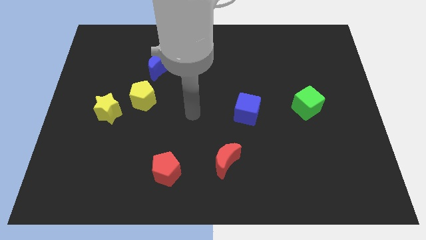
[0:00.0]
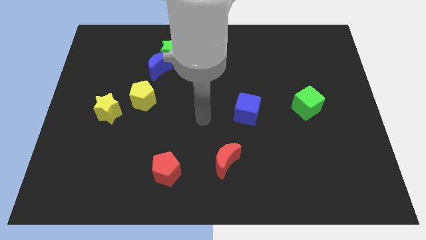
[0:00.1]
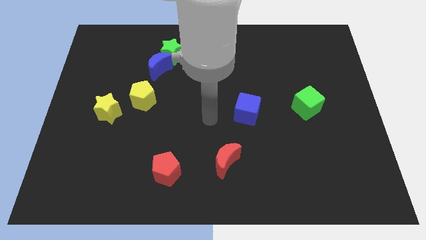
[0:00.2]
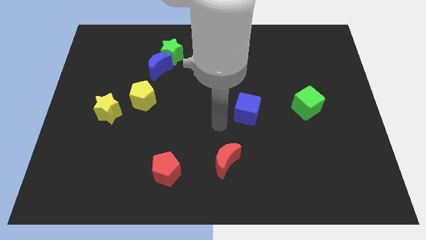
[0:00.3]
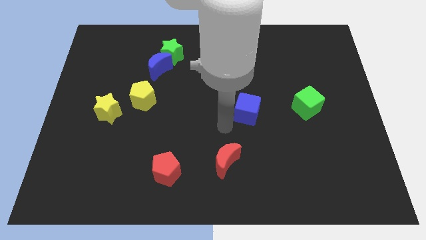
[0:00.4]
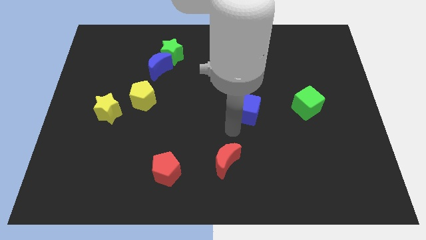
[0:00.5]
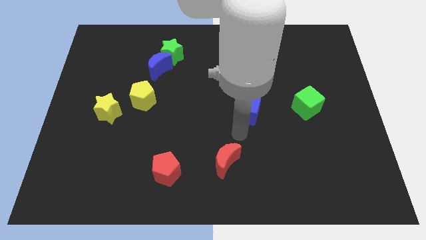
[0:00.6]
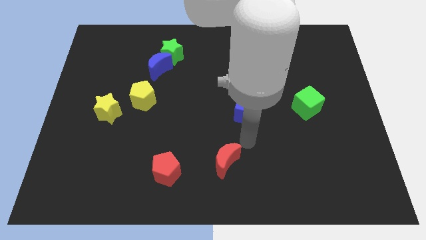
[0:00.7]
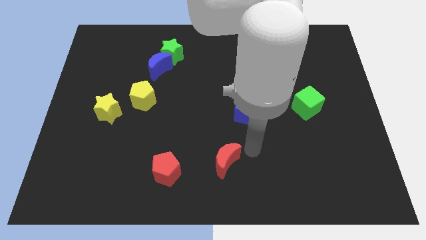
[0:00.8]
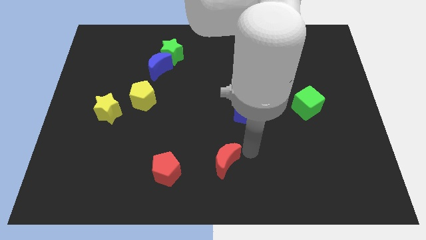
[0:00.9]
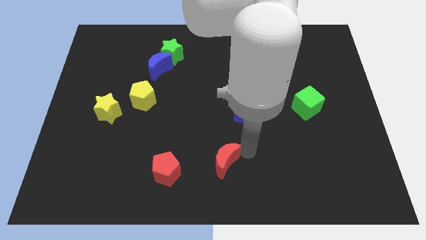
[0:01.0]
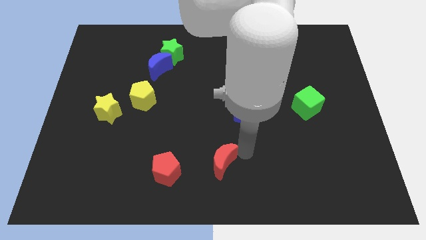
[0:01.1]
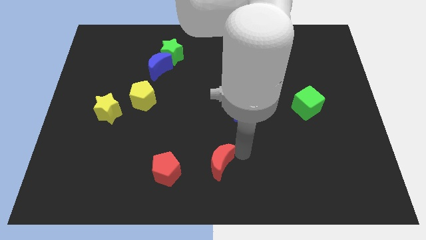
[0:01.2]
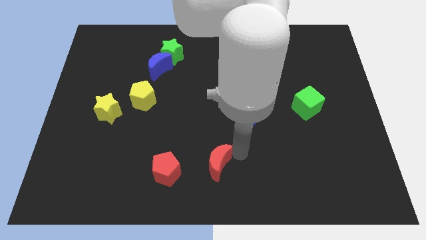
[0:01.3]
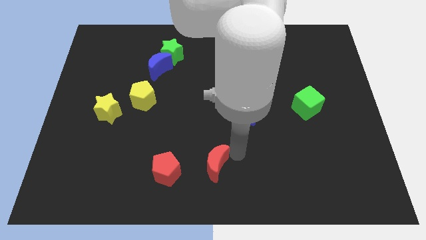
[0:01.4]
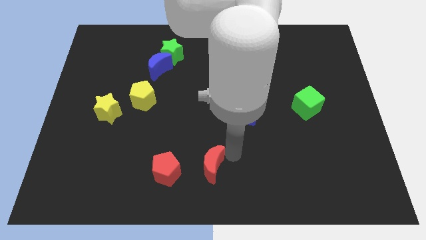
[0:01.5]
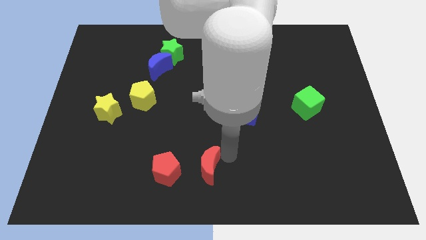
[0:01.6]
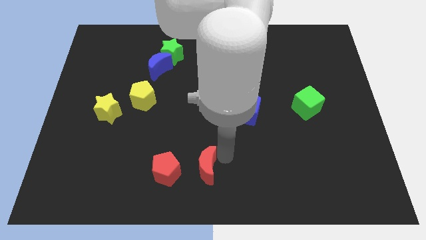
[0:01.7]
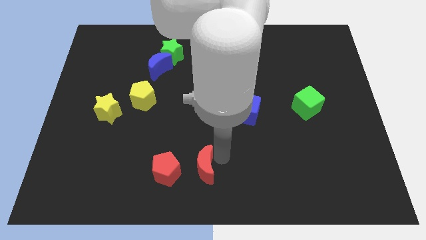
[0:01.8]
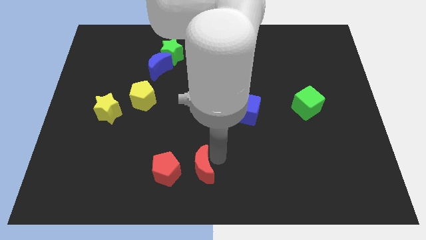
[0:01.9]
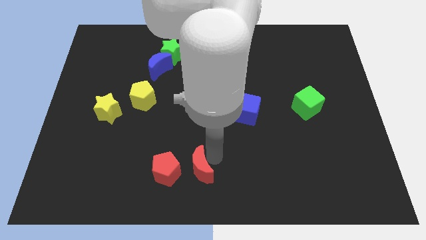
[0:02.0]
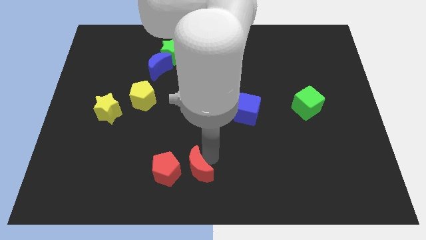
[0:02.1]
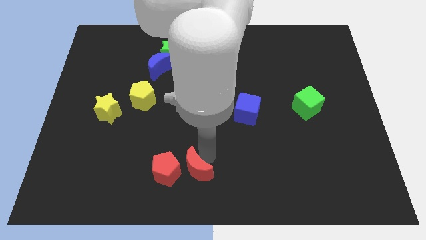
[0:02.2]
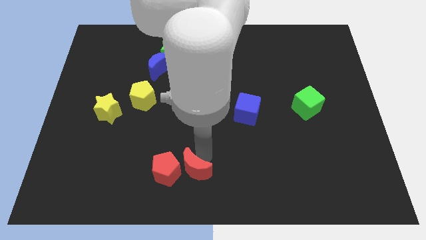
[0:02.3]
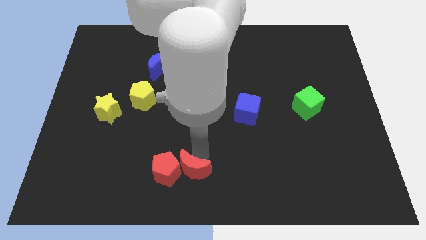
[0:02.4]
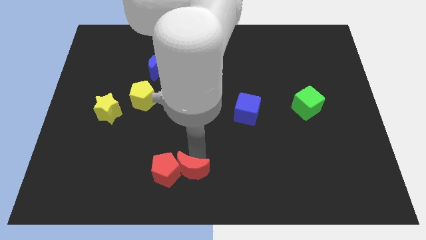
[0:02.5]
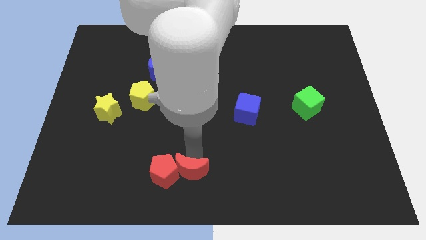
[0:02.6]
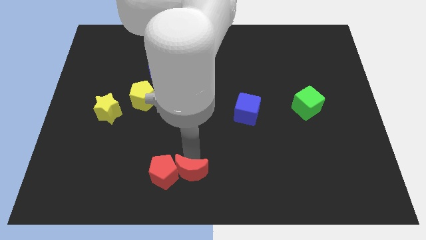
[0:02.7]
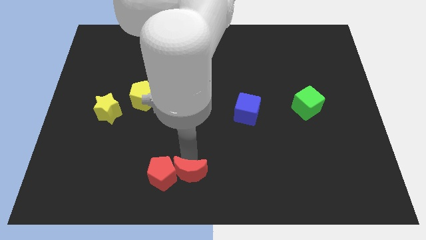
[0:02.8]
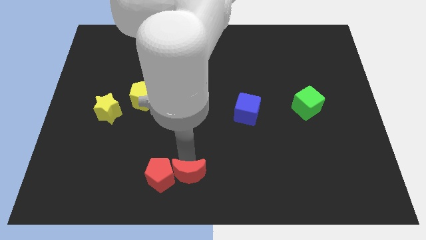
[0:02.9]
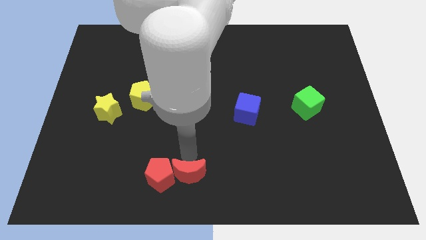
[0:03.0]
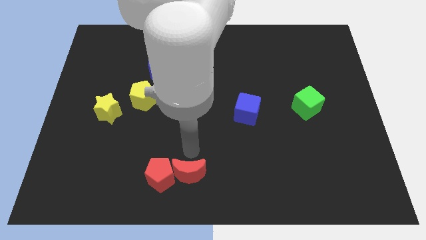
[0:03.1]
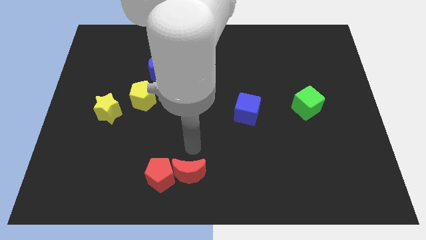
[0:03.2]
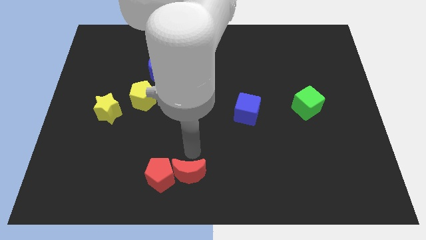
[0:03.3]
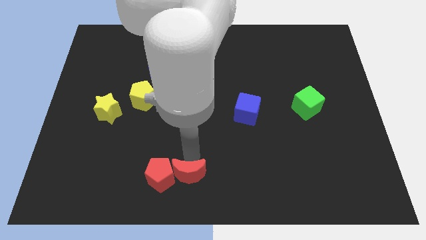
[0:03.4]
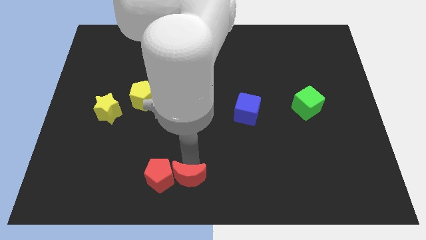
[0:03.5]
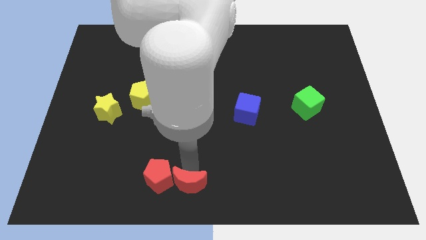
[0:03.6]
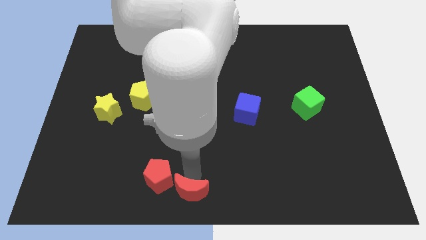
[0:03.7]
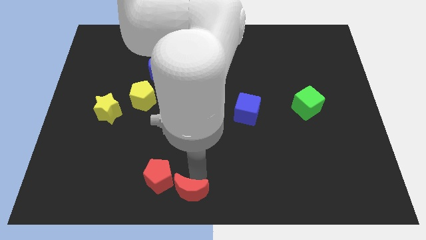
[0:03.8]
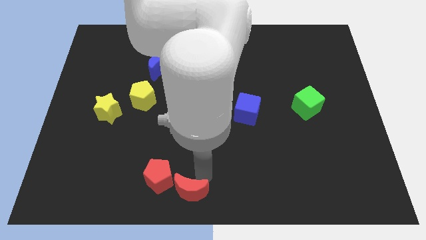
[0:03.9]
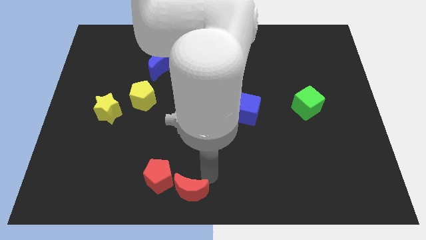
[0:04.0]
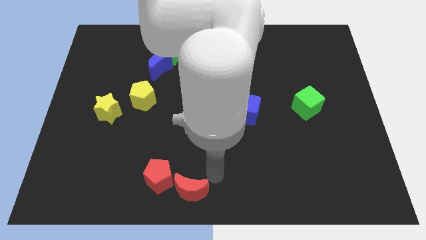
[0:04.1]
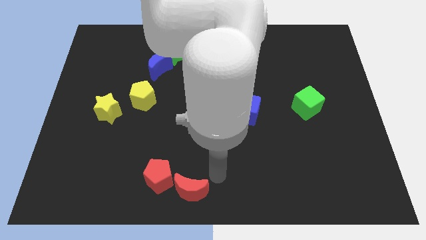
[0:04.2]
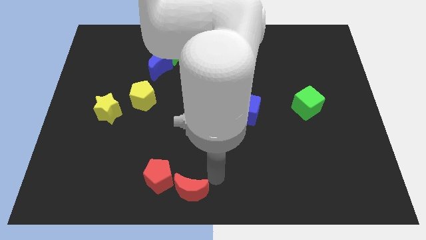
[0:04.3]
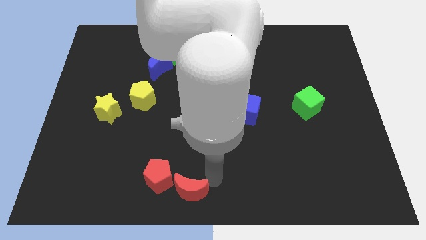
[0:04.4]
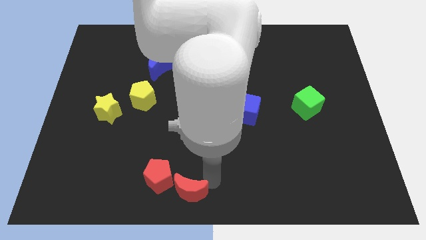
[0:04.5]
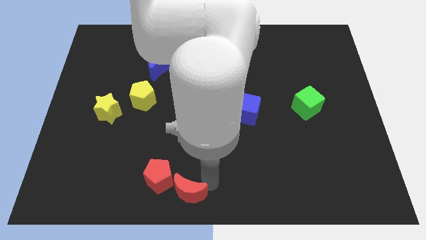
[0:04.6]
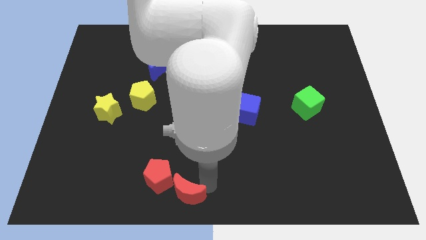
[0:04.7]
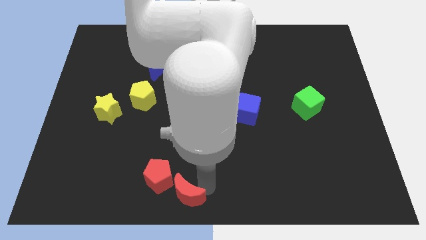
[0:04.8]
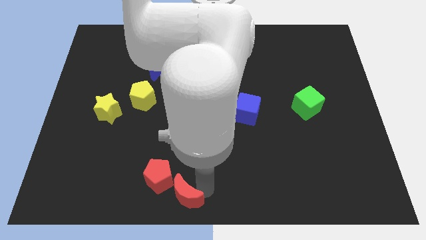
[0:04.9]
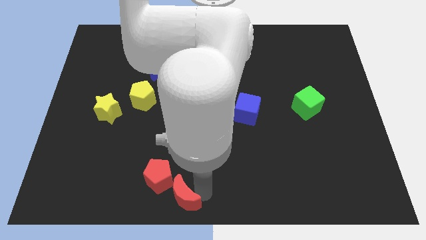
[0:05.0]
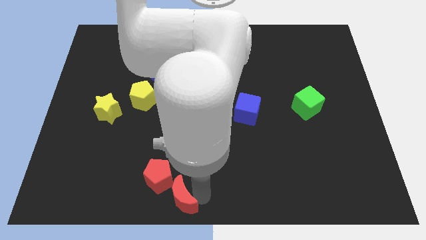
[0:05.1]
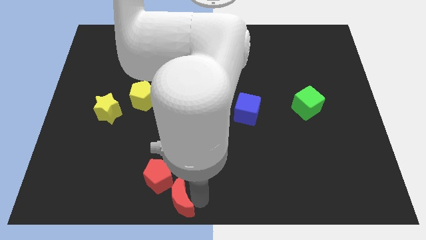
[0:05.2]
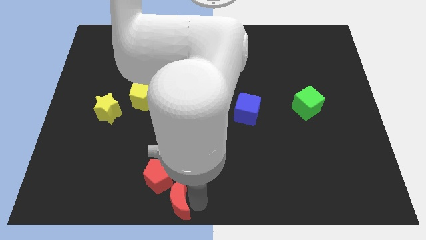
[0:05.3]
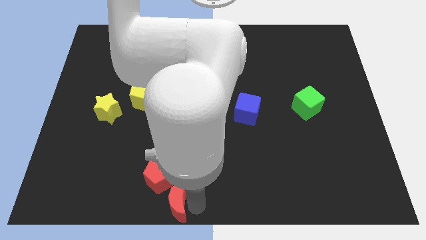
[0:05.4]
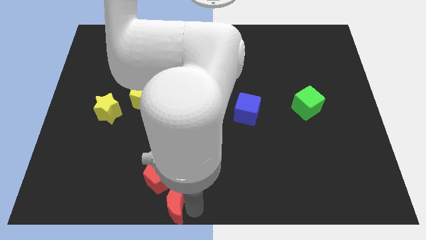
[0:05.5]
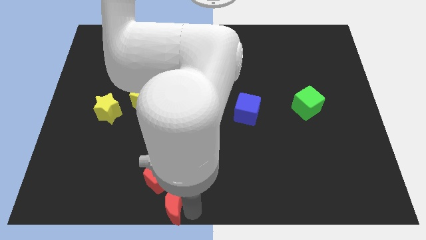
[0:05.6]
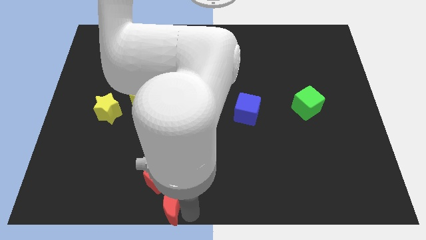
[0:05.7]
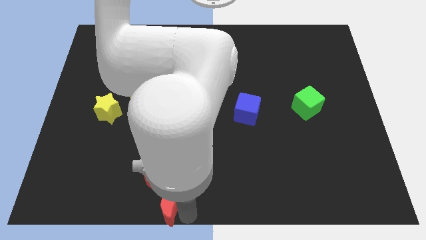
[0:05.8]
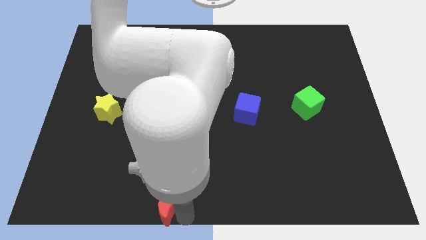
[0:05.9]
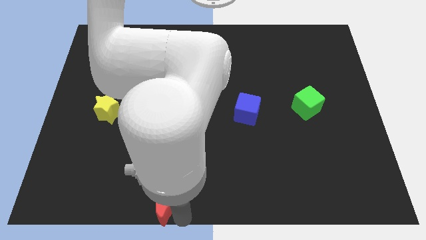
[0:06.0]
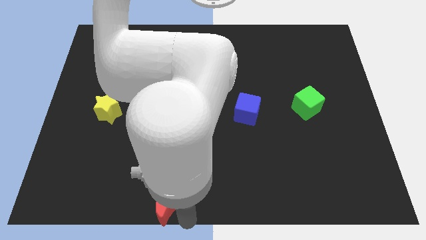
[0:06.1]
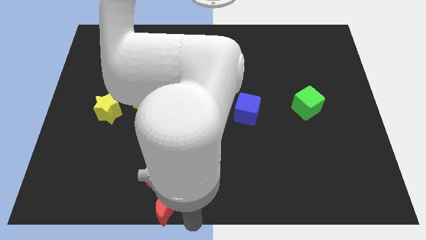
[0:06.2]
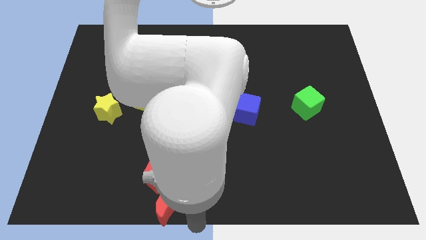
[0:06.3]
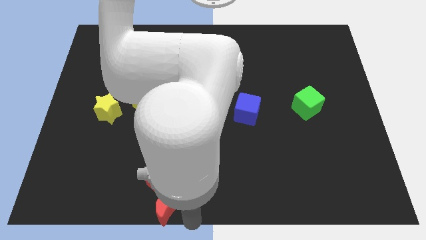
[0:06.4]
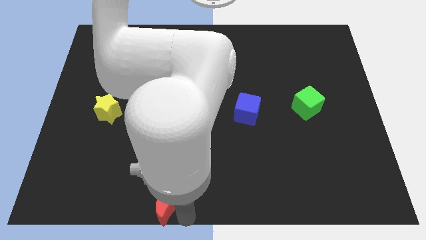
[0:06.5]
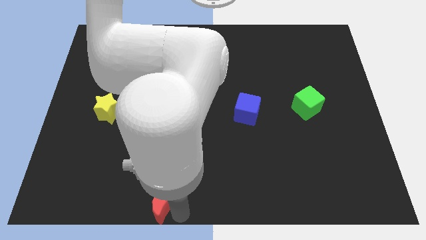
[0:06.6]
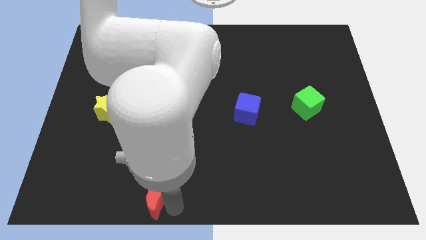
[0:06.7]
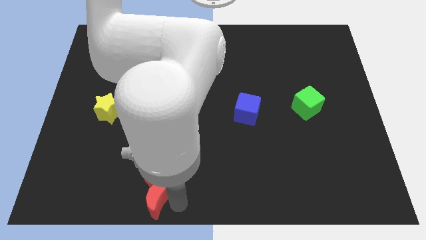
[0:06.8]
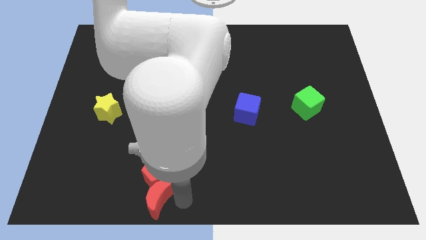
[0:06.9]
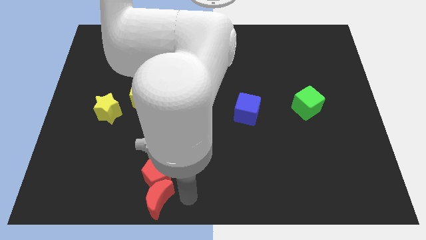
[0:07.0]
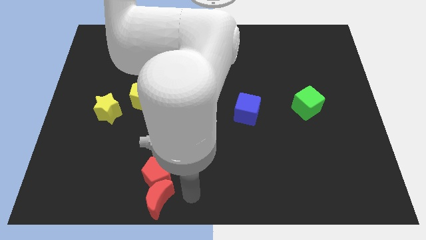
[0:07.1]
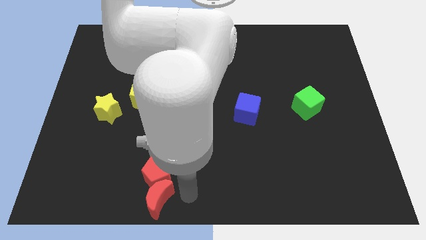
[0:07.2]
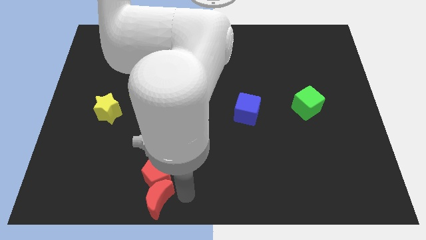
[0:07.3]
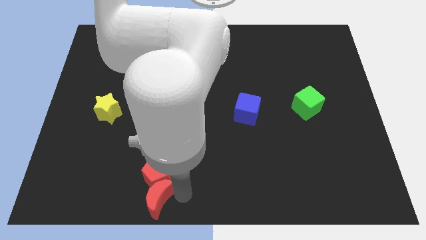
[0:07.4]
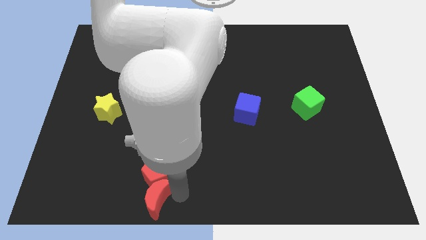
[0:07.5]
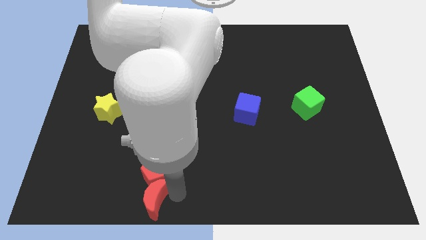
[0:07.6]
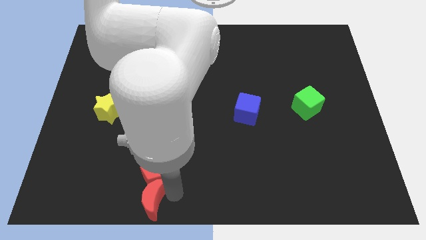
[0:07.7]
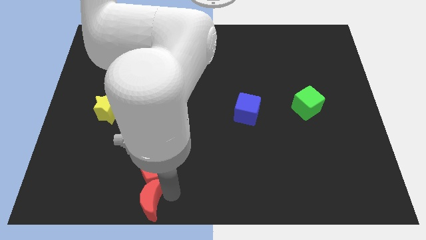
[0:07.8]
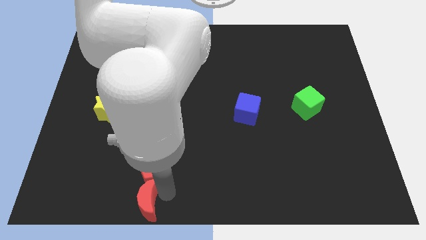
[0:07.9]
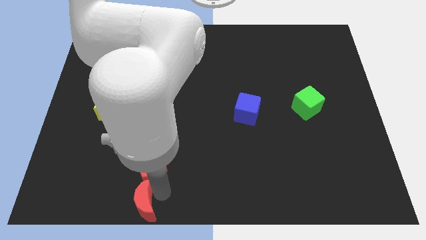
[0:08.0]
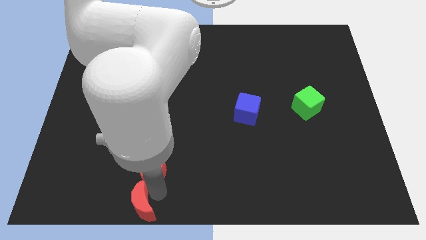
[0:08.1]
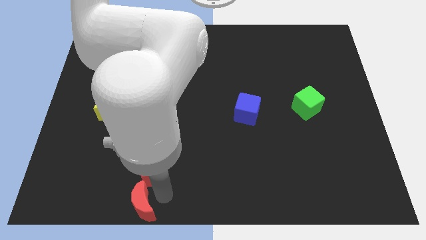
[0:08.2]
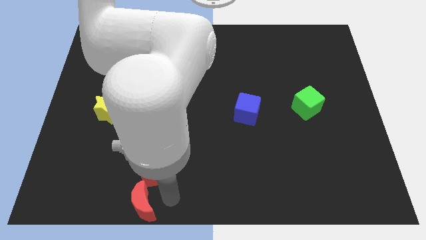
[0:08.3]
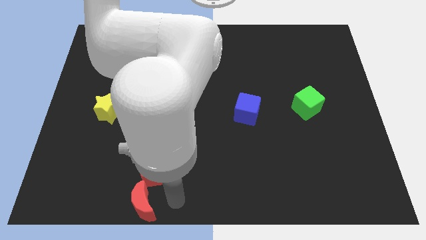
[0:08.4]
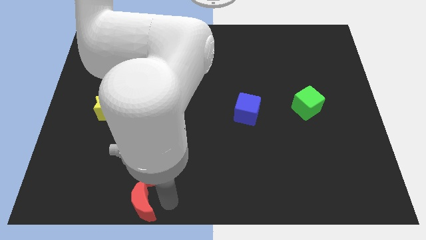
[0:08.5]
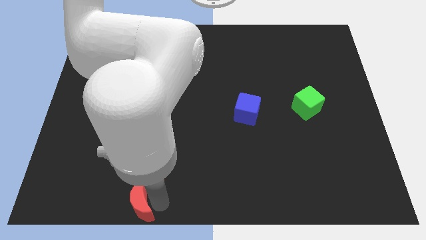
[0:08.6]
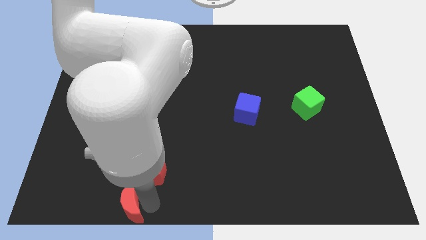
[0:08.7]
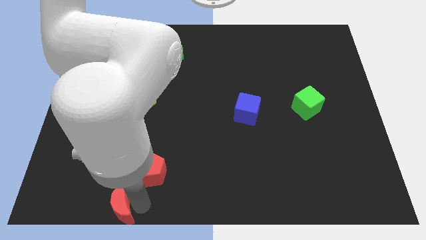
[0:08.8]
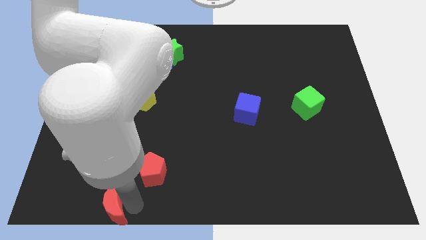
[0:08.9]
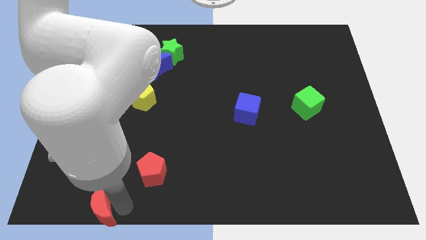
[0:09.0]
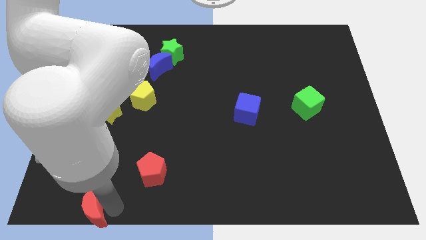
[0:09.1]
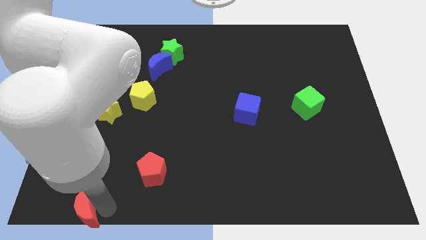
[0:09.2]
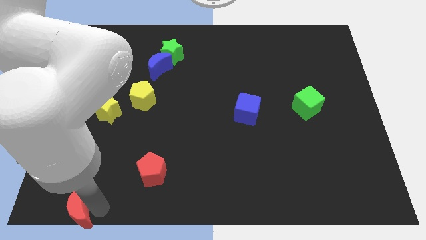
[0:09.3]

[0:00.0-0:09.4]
put the red moon to the bottom left of the board
